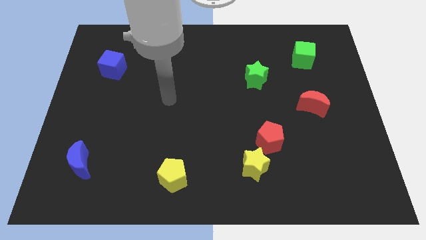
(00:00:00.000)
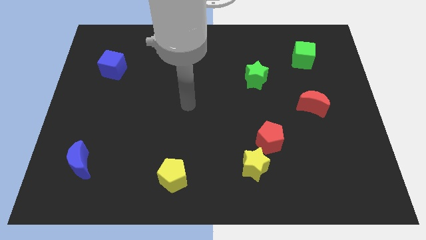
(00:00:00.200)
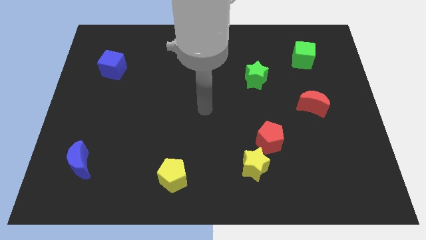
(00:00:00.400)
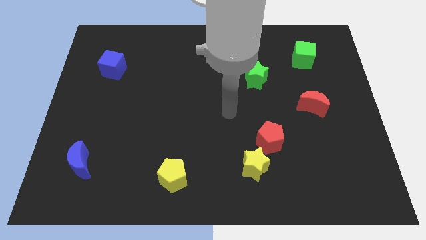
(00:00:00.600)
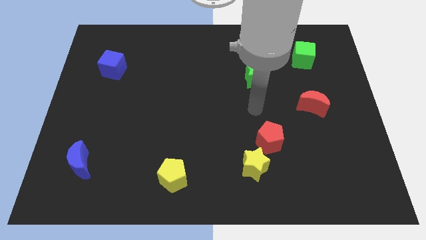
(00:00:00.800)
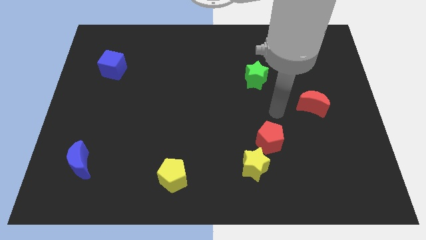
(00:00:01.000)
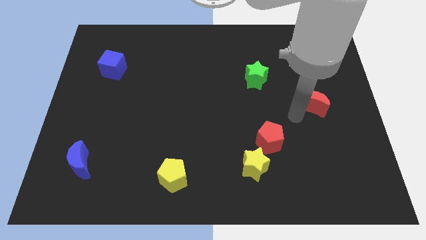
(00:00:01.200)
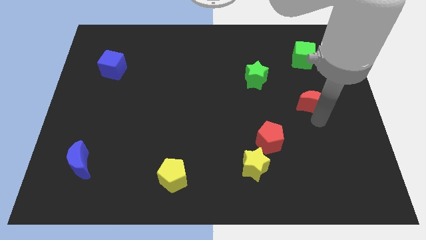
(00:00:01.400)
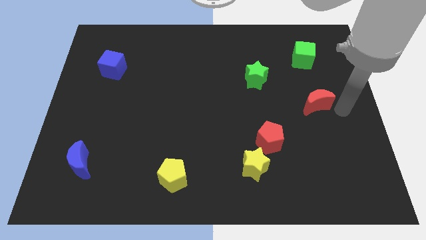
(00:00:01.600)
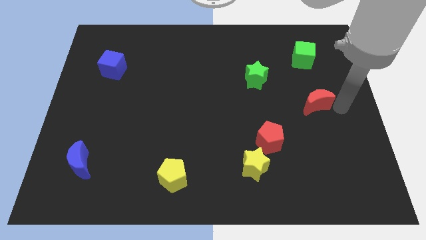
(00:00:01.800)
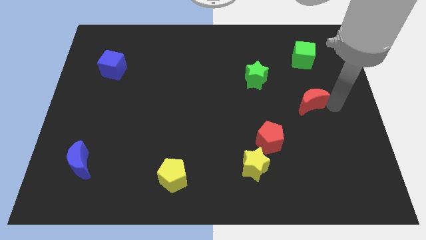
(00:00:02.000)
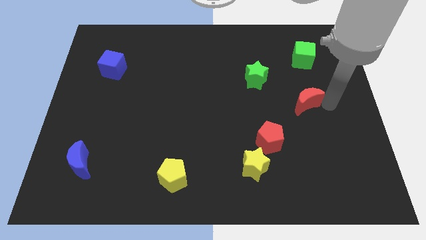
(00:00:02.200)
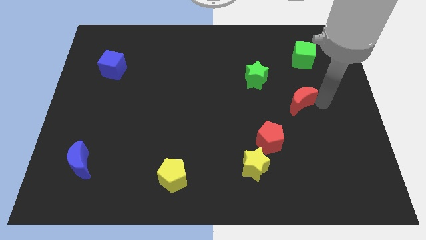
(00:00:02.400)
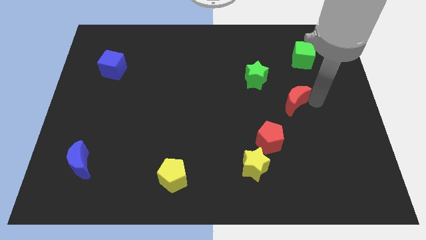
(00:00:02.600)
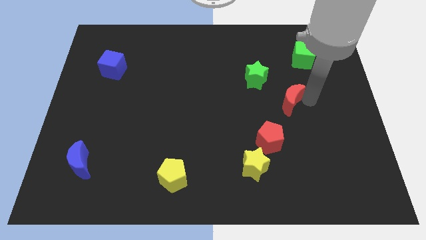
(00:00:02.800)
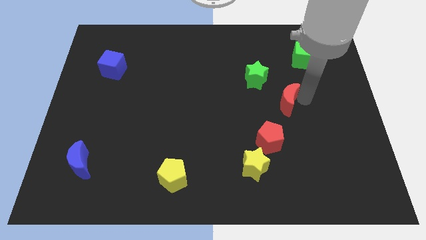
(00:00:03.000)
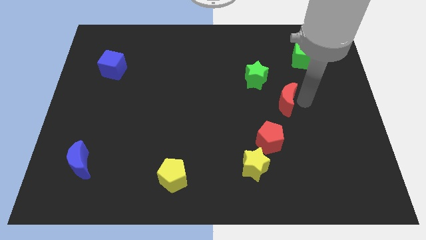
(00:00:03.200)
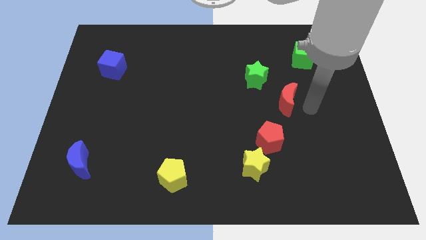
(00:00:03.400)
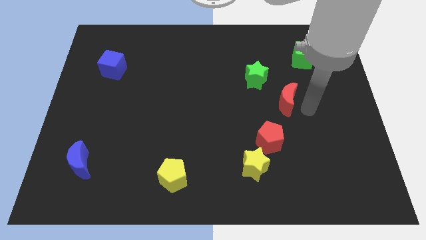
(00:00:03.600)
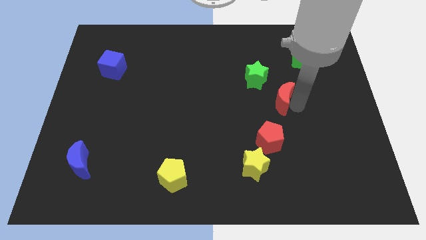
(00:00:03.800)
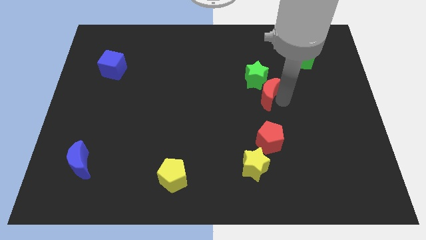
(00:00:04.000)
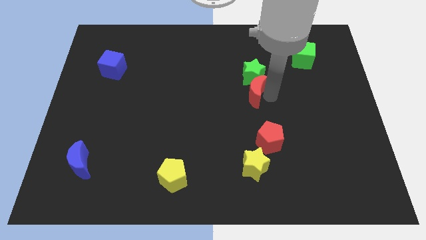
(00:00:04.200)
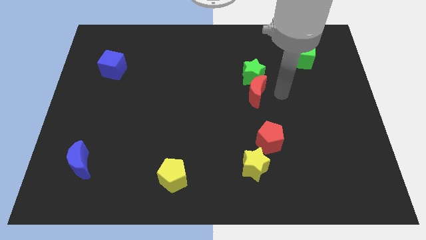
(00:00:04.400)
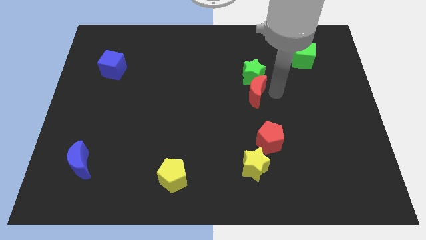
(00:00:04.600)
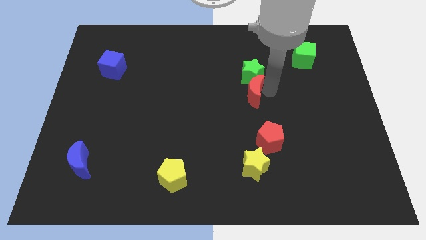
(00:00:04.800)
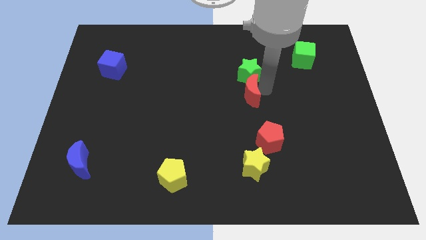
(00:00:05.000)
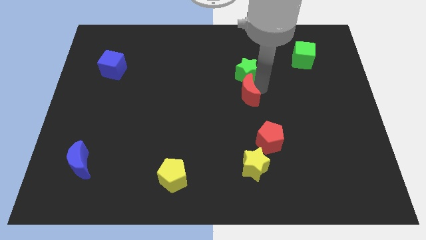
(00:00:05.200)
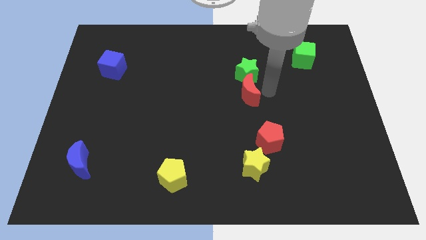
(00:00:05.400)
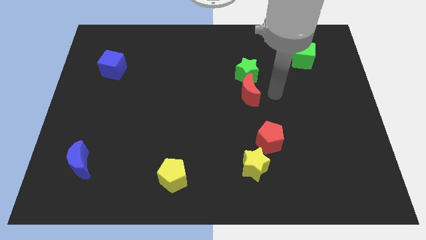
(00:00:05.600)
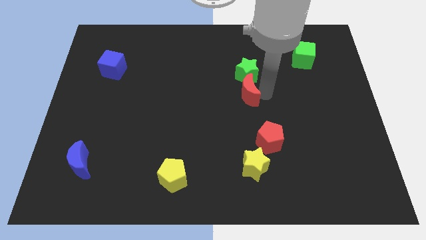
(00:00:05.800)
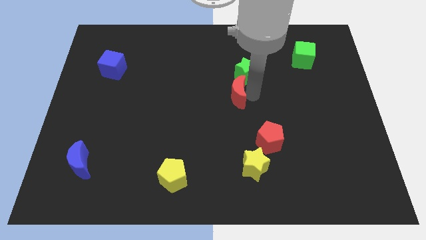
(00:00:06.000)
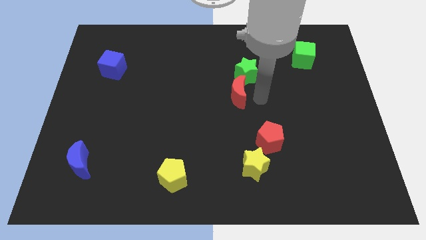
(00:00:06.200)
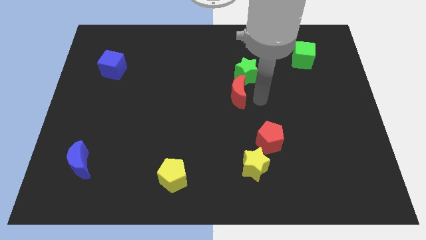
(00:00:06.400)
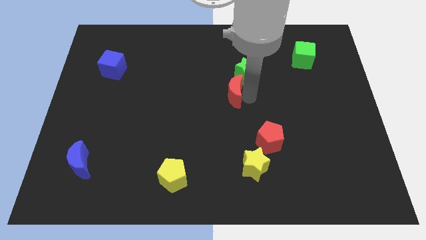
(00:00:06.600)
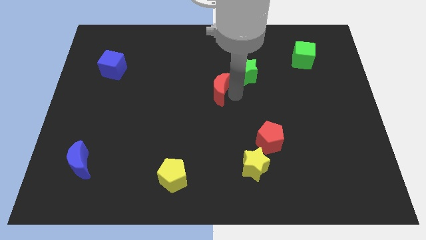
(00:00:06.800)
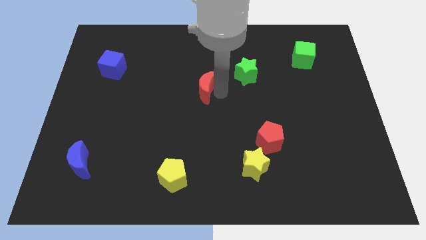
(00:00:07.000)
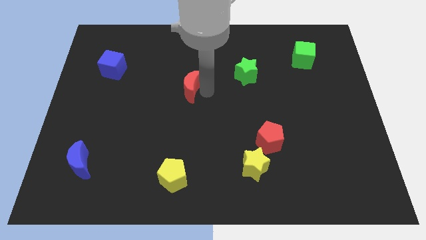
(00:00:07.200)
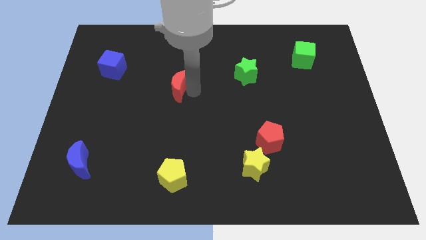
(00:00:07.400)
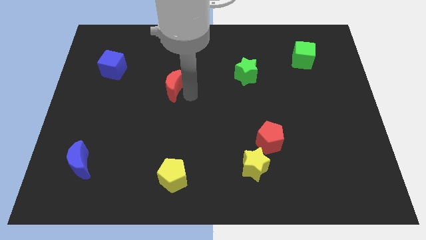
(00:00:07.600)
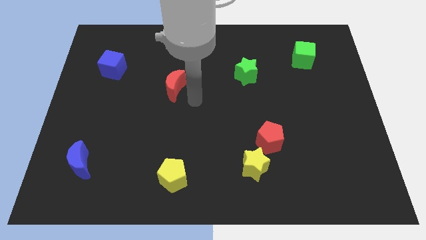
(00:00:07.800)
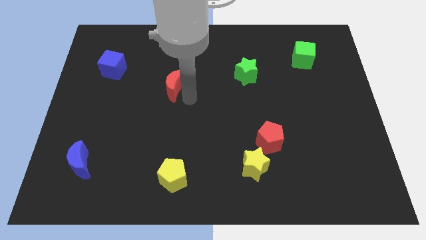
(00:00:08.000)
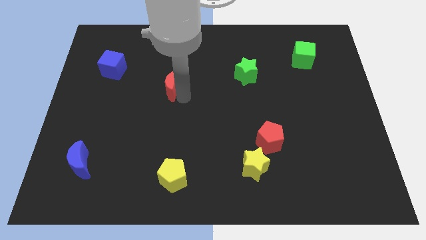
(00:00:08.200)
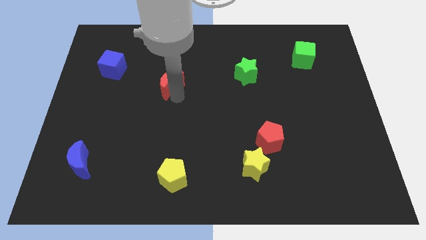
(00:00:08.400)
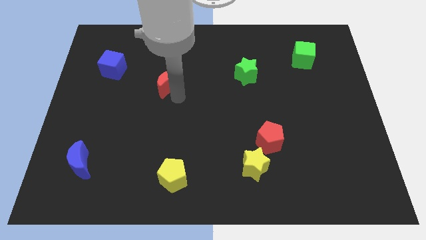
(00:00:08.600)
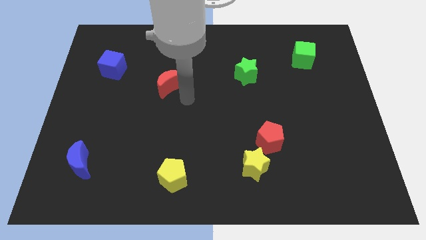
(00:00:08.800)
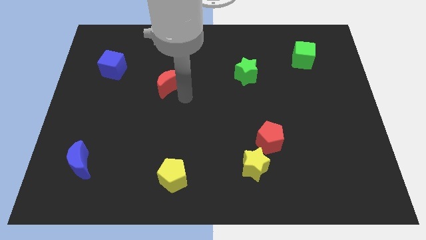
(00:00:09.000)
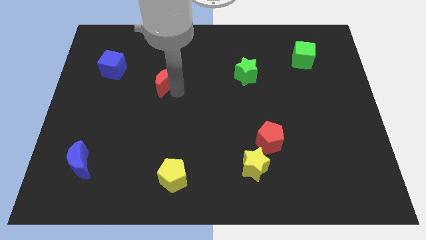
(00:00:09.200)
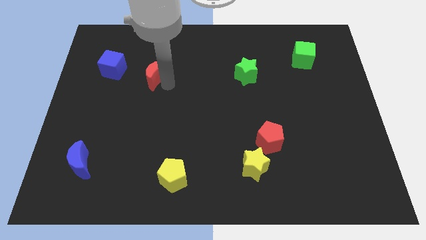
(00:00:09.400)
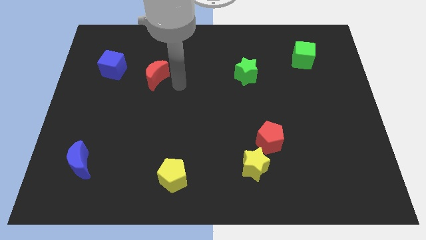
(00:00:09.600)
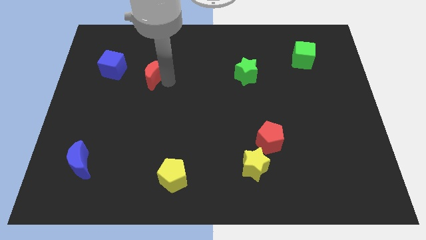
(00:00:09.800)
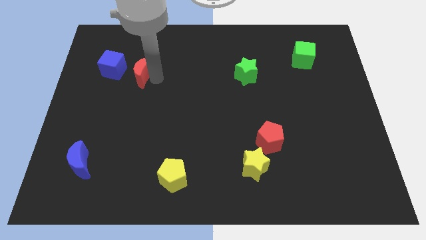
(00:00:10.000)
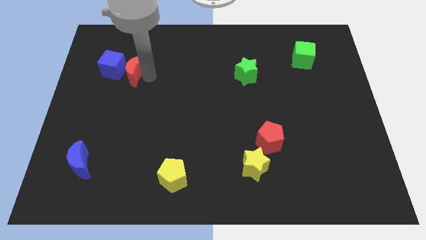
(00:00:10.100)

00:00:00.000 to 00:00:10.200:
push the red moon close to the blue cube

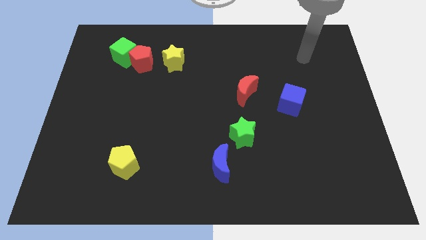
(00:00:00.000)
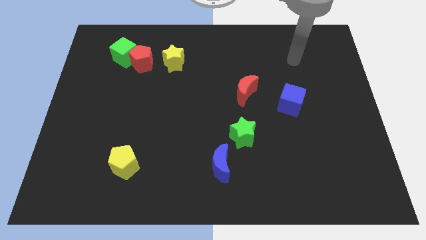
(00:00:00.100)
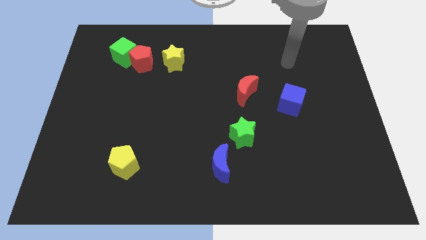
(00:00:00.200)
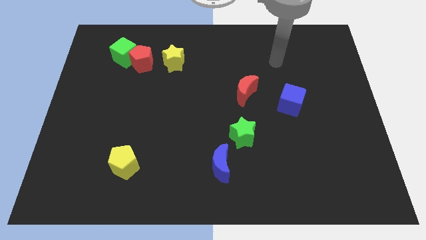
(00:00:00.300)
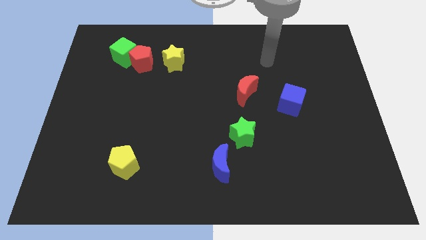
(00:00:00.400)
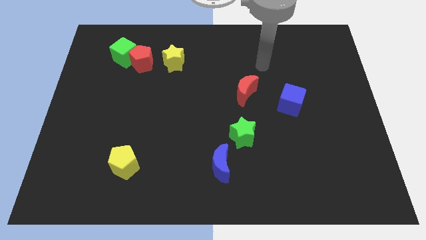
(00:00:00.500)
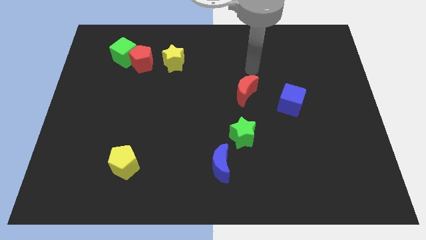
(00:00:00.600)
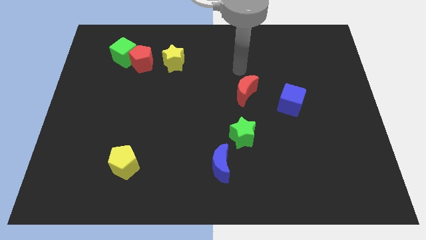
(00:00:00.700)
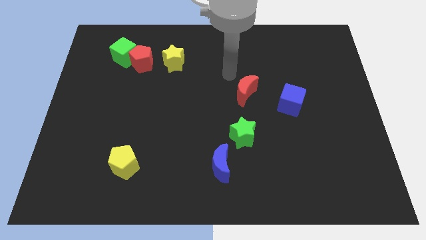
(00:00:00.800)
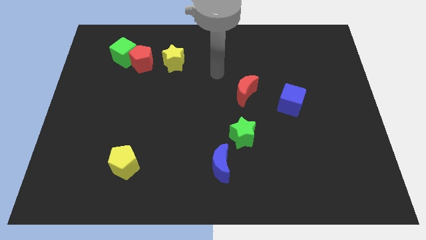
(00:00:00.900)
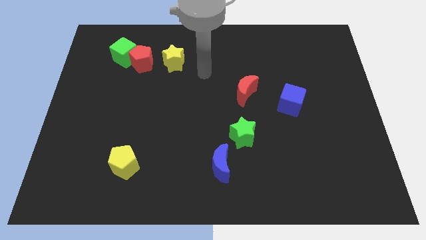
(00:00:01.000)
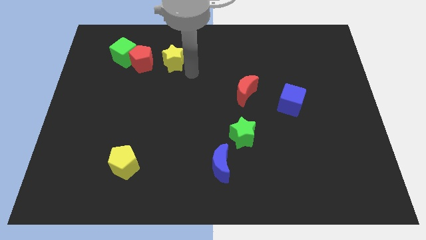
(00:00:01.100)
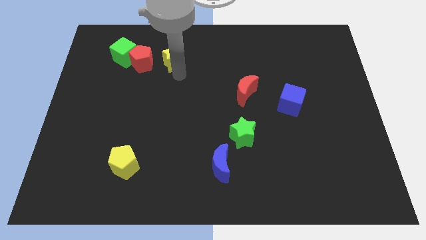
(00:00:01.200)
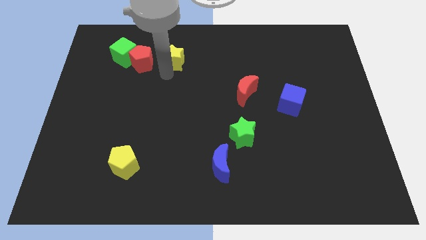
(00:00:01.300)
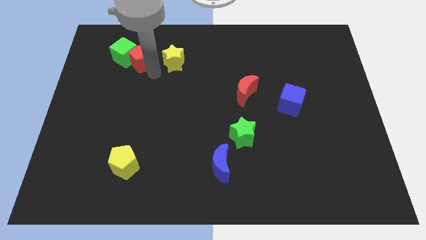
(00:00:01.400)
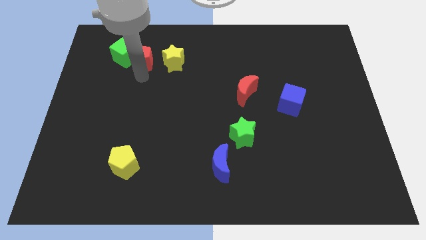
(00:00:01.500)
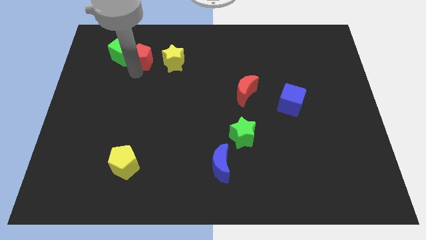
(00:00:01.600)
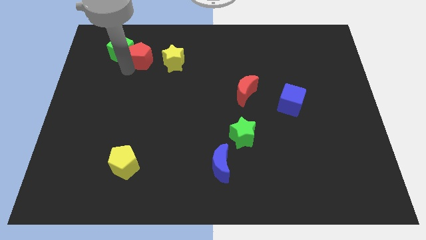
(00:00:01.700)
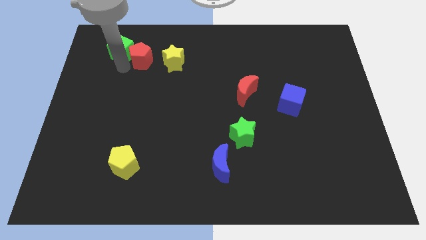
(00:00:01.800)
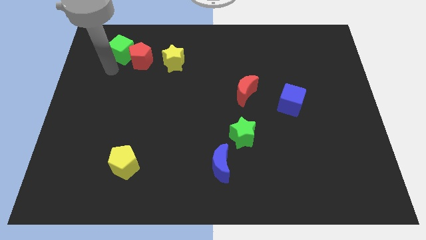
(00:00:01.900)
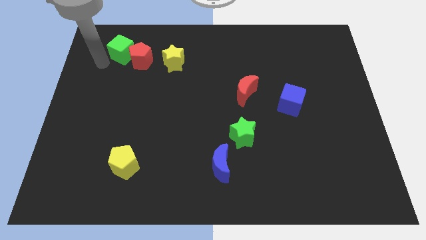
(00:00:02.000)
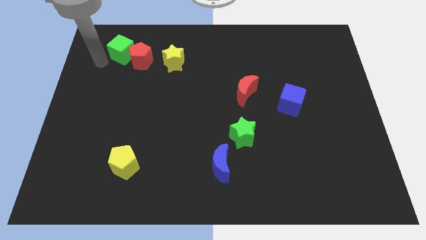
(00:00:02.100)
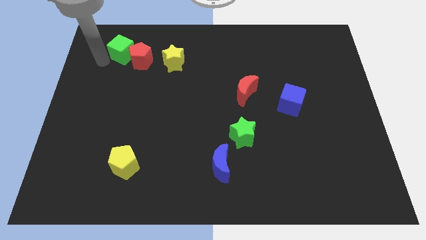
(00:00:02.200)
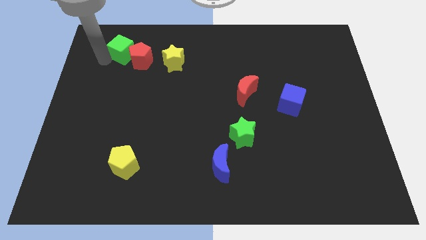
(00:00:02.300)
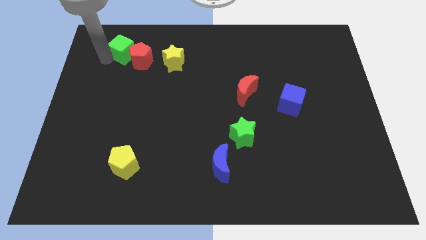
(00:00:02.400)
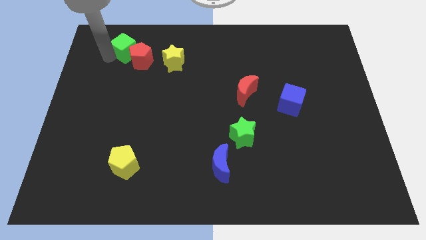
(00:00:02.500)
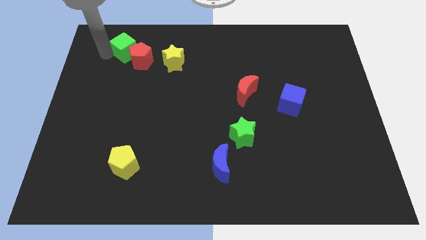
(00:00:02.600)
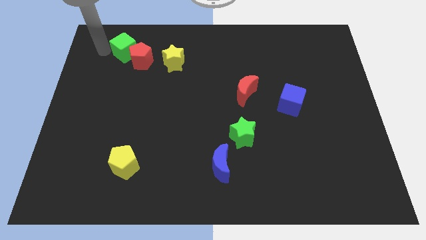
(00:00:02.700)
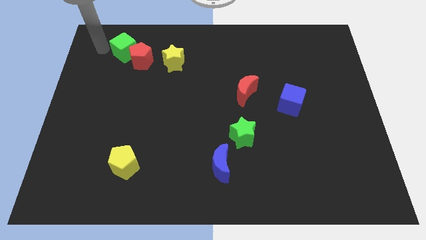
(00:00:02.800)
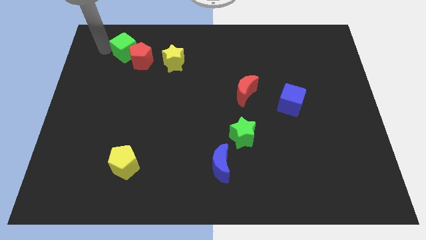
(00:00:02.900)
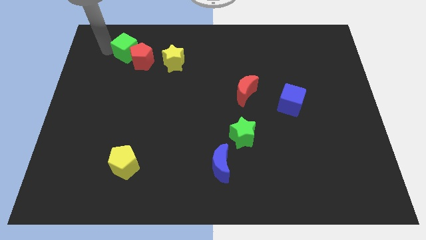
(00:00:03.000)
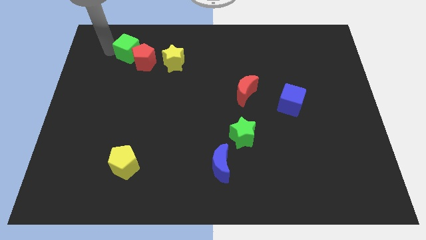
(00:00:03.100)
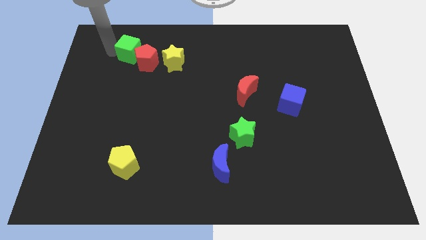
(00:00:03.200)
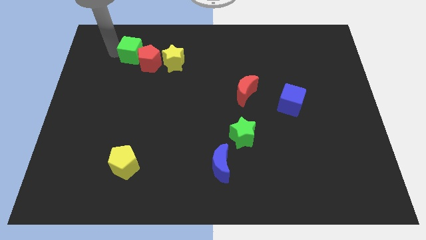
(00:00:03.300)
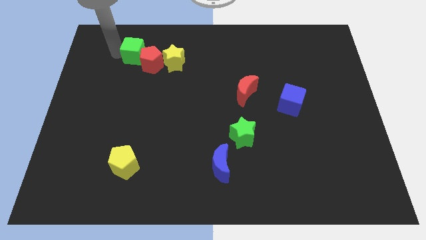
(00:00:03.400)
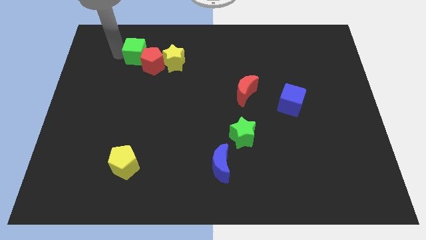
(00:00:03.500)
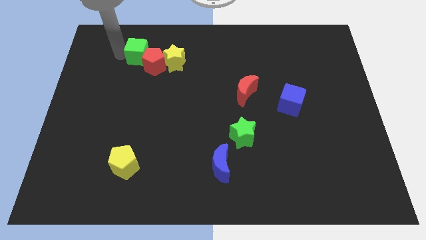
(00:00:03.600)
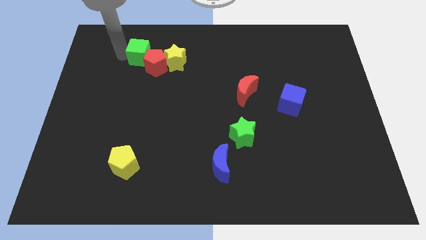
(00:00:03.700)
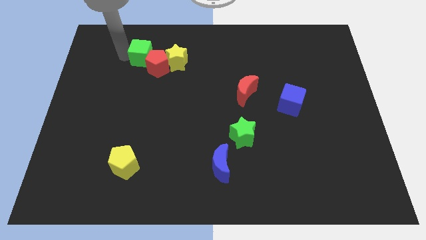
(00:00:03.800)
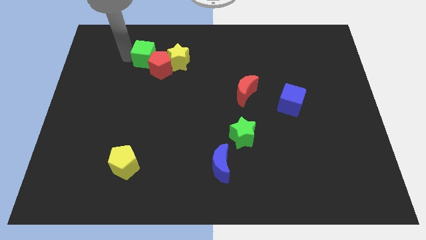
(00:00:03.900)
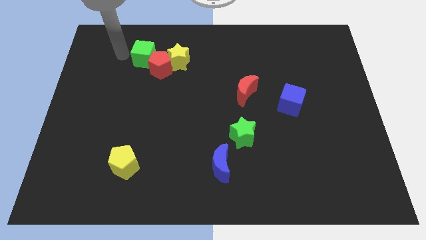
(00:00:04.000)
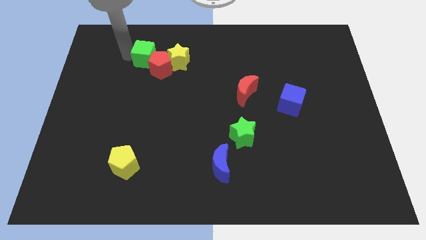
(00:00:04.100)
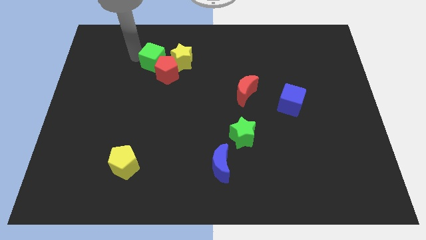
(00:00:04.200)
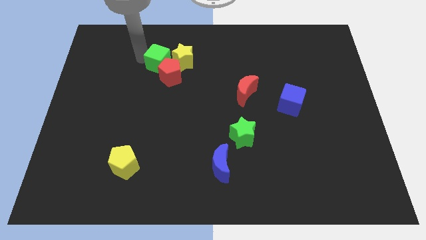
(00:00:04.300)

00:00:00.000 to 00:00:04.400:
push the green cube next to the yellow star
